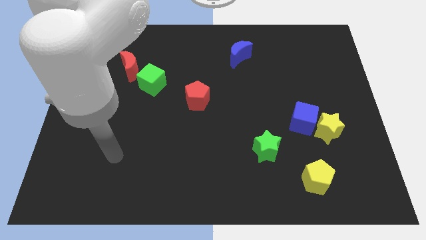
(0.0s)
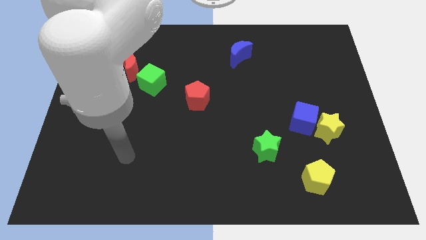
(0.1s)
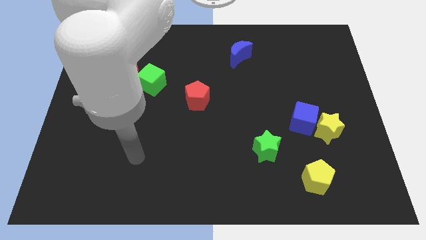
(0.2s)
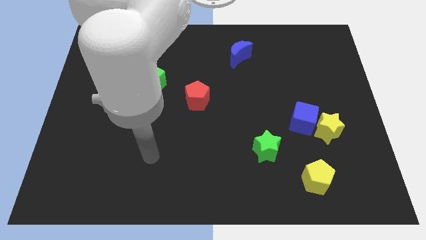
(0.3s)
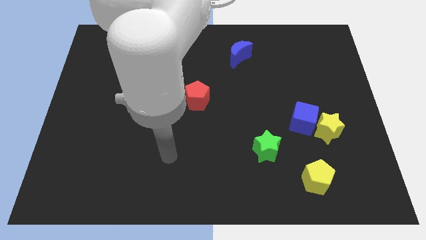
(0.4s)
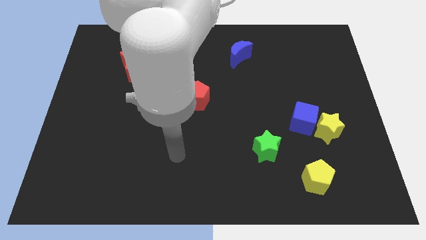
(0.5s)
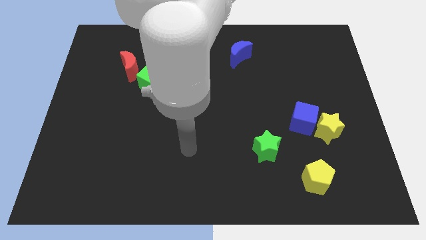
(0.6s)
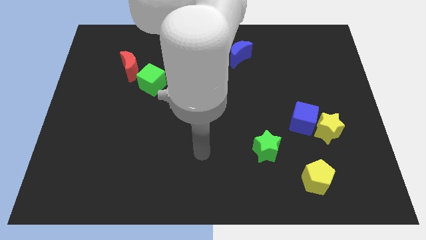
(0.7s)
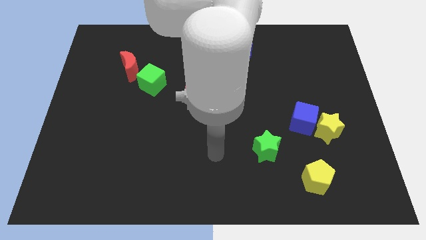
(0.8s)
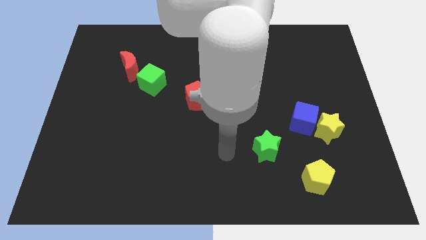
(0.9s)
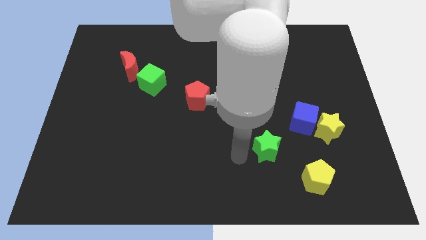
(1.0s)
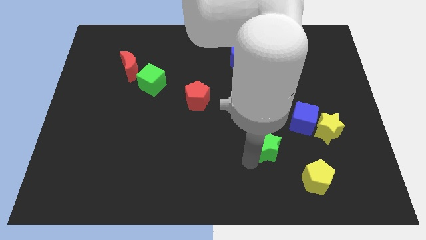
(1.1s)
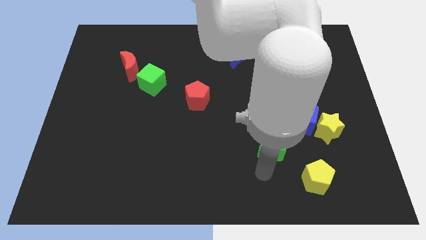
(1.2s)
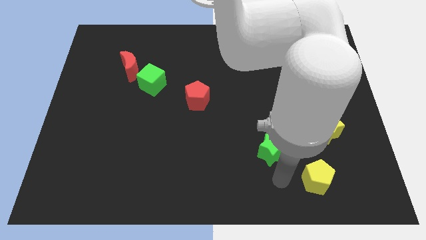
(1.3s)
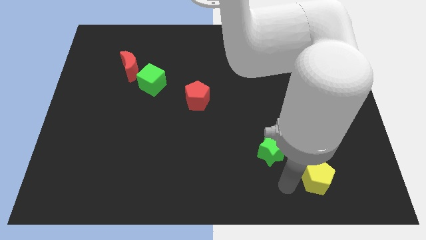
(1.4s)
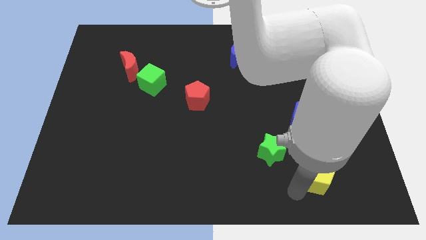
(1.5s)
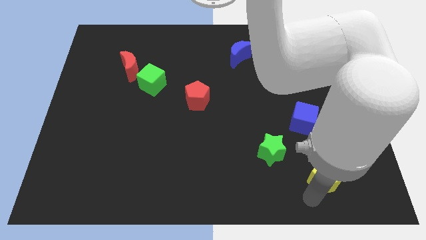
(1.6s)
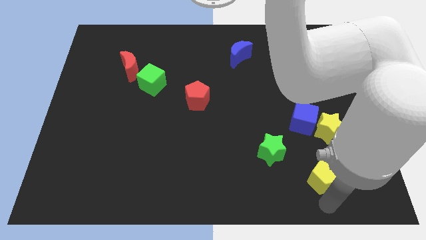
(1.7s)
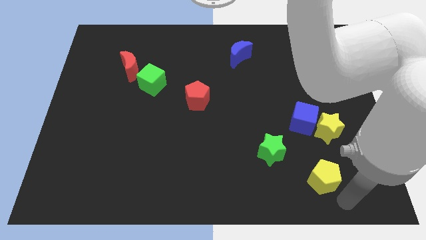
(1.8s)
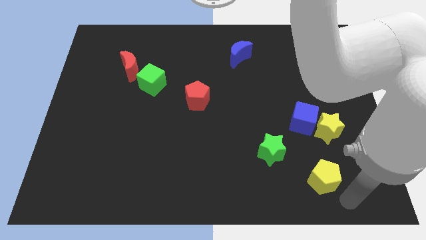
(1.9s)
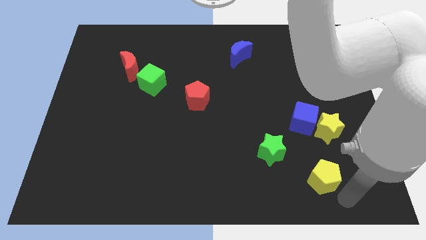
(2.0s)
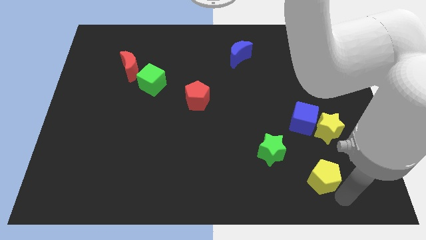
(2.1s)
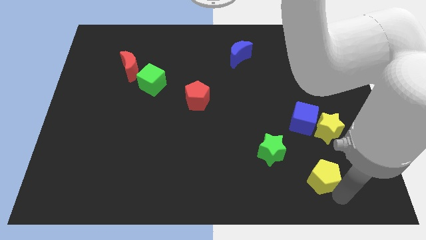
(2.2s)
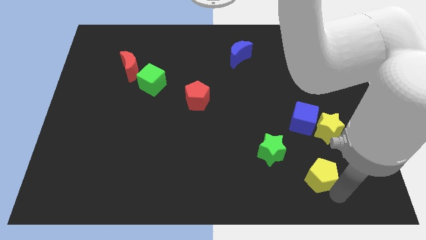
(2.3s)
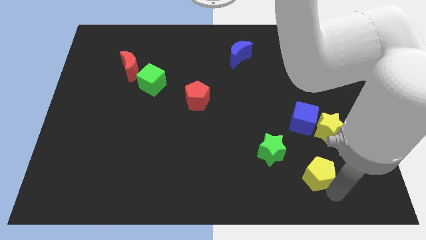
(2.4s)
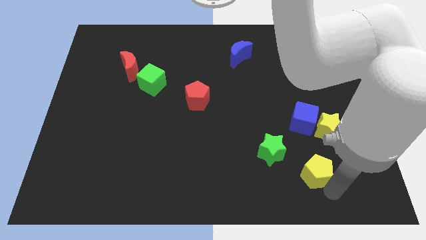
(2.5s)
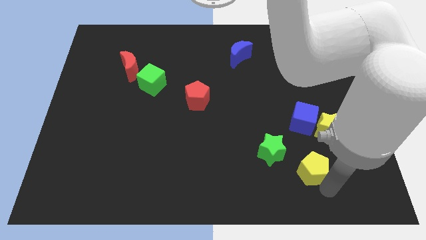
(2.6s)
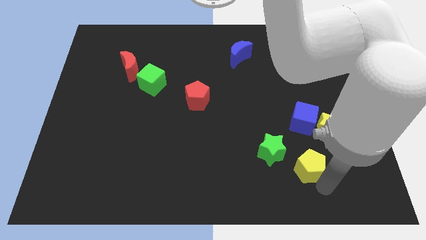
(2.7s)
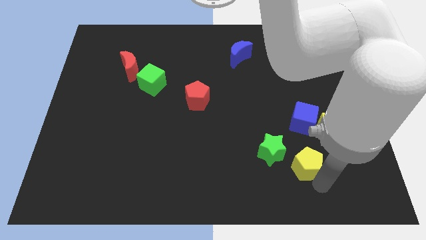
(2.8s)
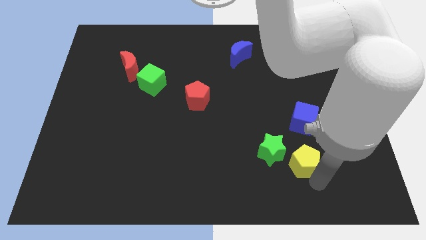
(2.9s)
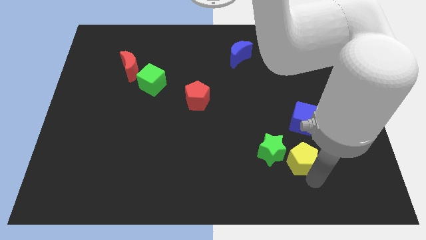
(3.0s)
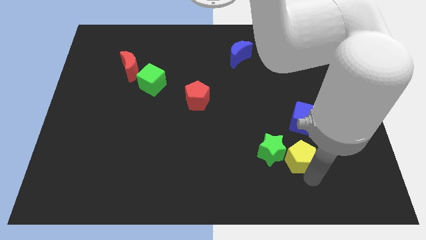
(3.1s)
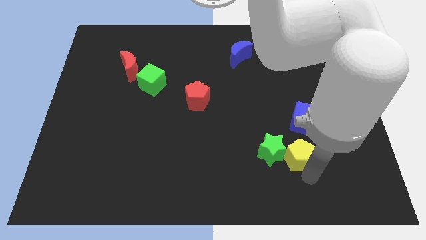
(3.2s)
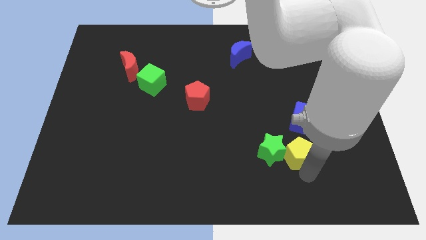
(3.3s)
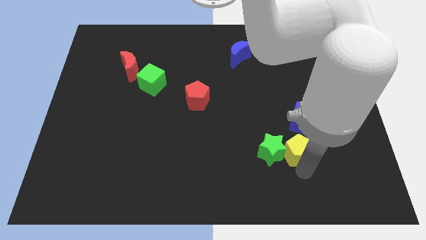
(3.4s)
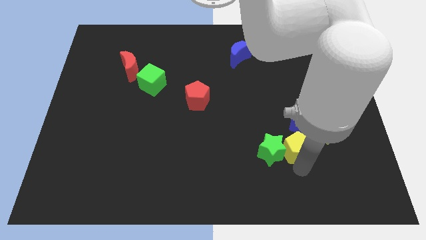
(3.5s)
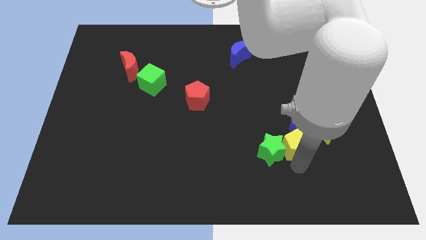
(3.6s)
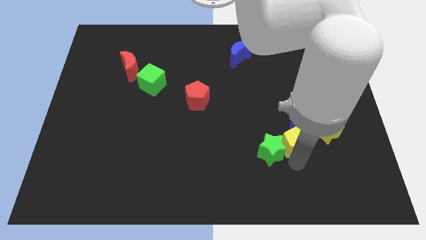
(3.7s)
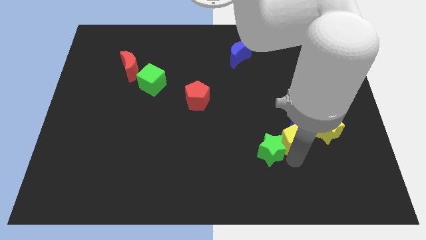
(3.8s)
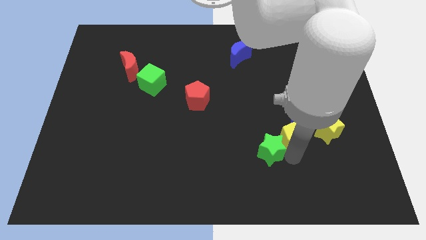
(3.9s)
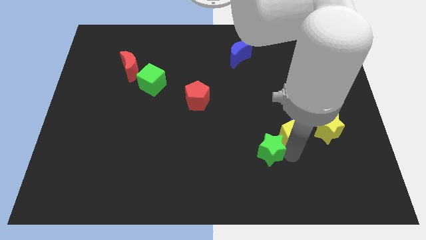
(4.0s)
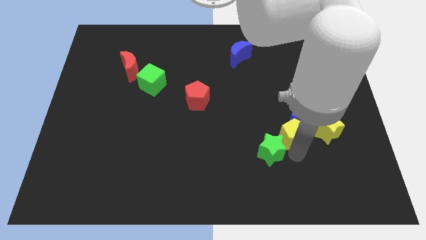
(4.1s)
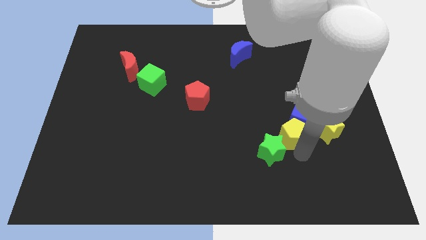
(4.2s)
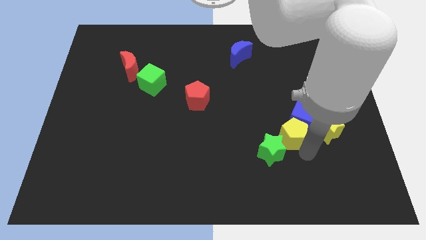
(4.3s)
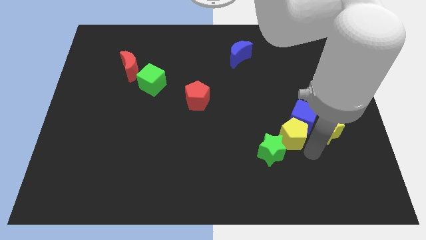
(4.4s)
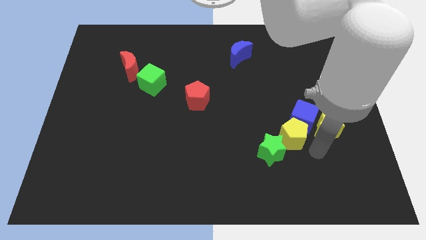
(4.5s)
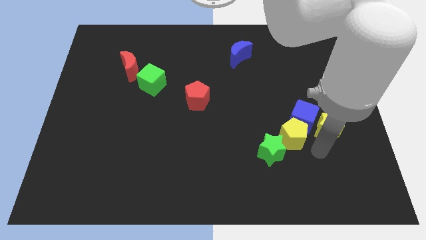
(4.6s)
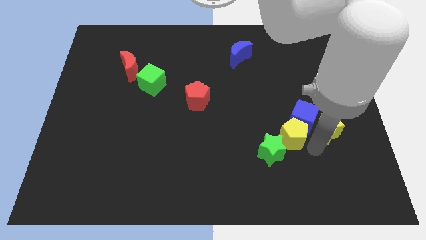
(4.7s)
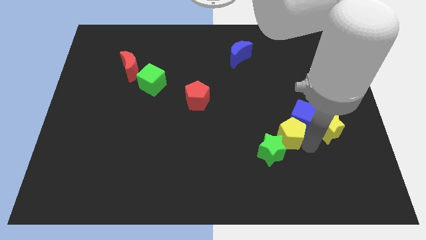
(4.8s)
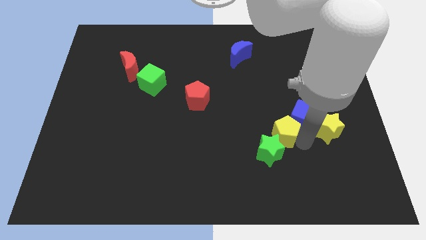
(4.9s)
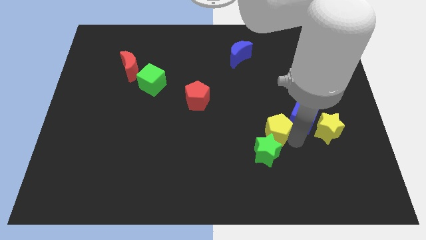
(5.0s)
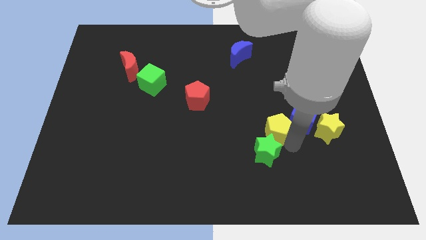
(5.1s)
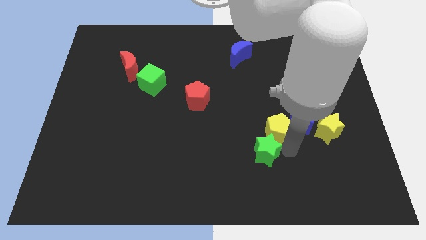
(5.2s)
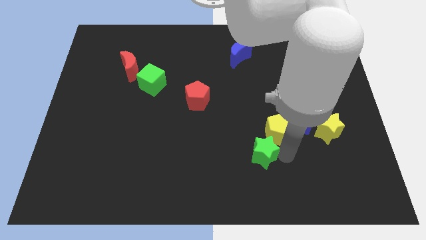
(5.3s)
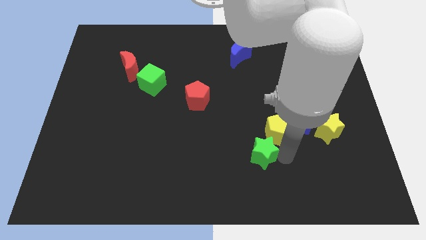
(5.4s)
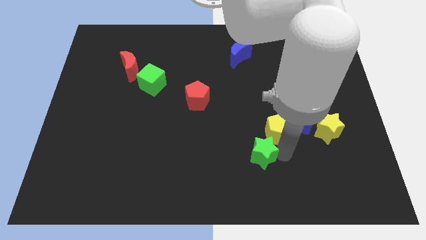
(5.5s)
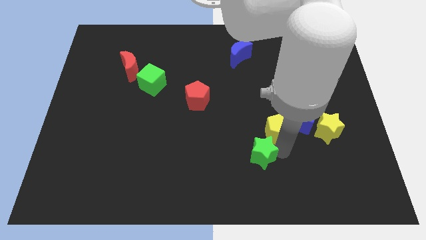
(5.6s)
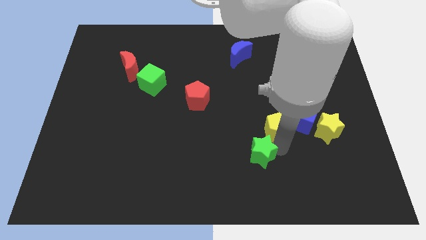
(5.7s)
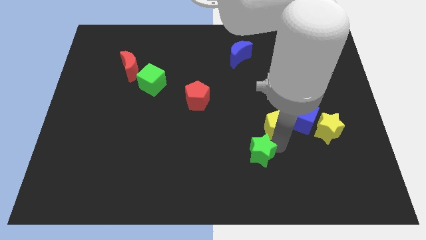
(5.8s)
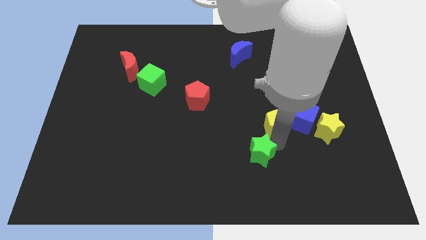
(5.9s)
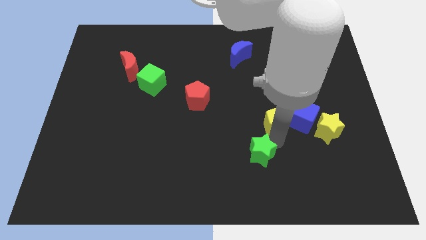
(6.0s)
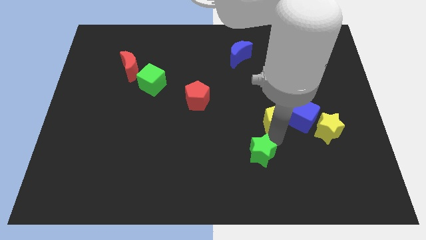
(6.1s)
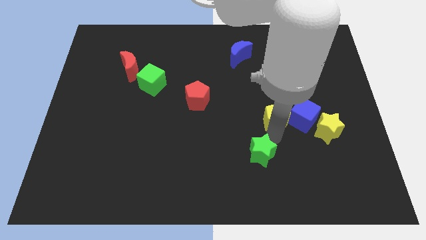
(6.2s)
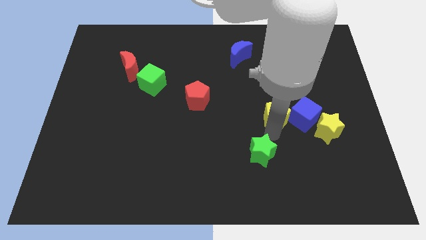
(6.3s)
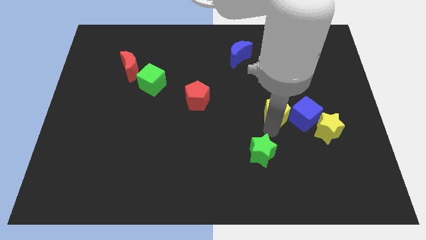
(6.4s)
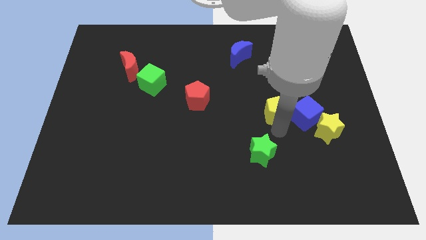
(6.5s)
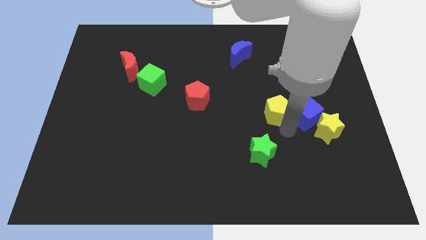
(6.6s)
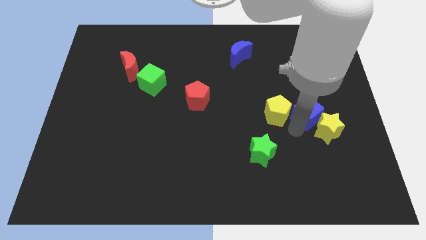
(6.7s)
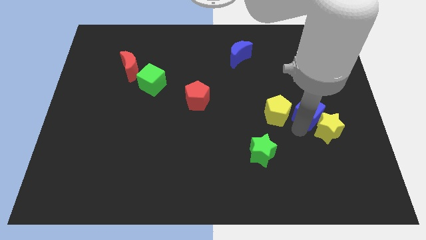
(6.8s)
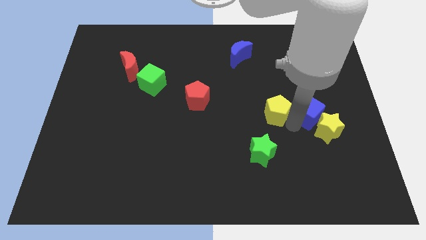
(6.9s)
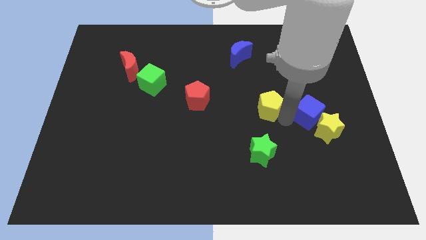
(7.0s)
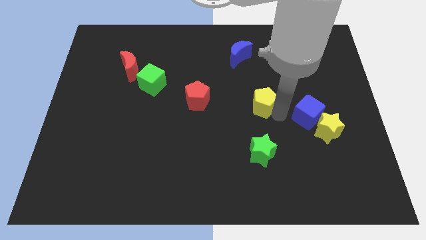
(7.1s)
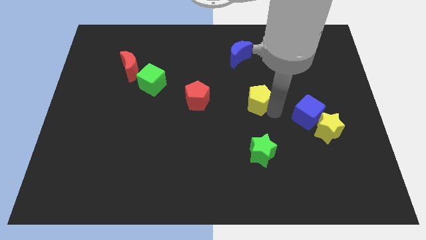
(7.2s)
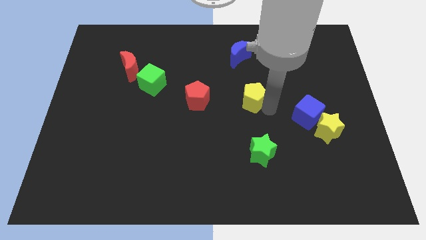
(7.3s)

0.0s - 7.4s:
push the yellow pentagon to the bottom side of the blue moon
